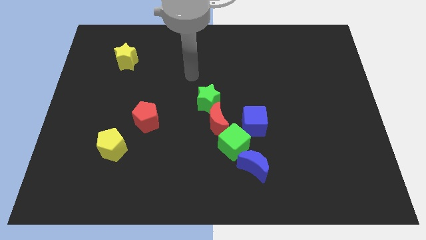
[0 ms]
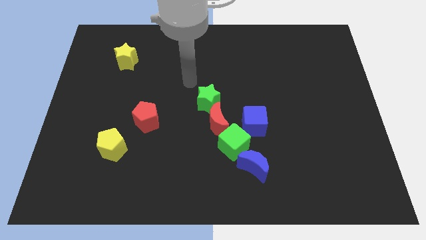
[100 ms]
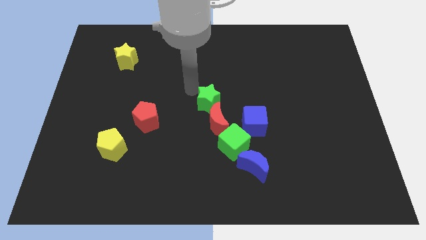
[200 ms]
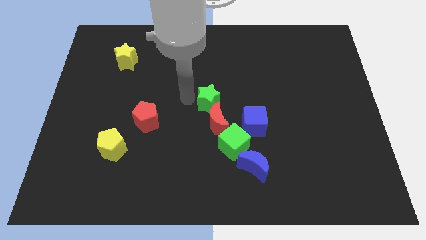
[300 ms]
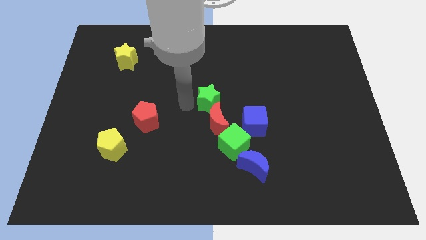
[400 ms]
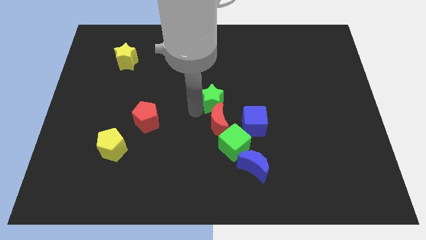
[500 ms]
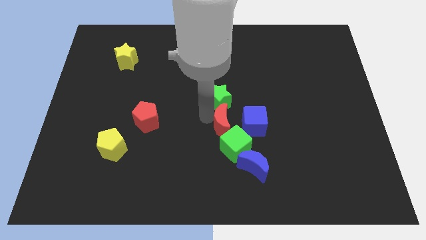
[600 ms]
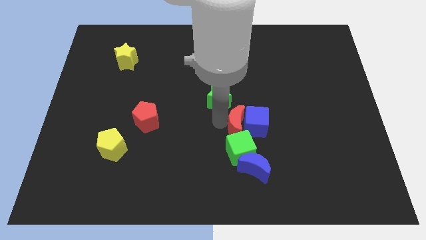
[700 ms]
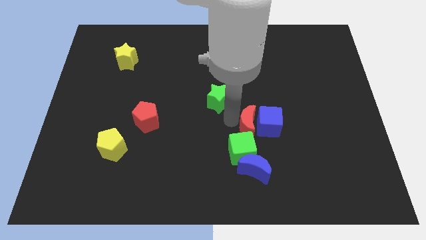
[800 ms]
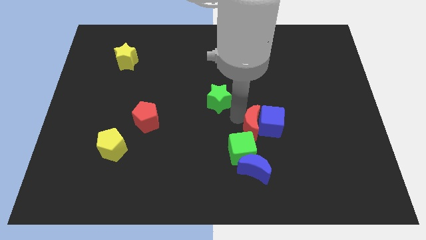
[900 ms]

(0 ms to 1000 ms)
pull the green star apart from the red moon

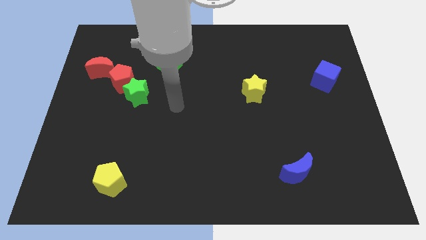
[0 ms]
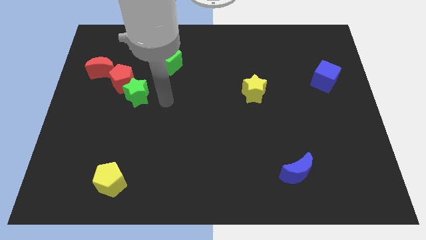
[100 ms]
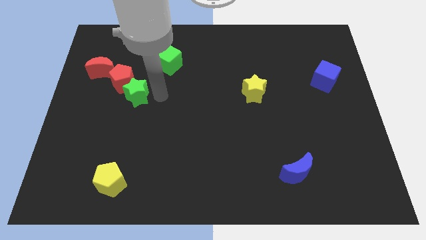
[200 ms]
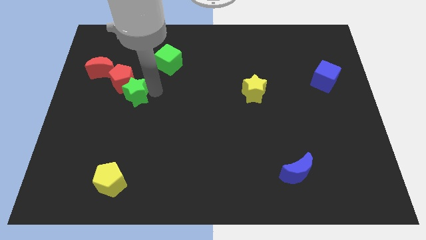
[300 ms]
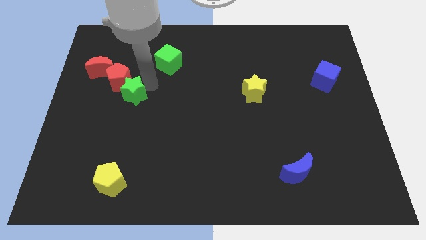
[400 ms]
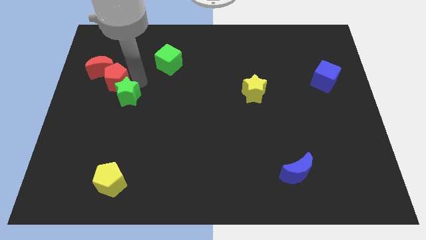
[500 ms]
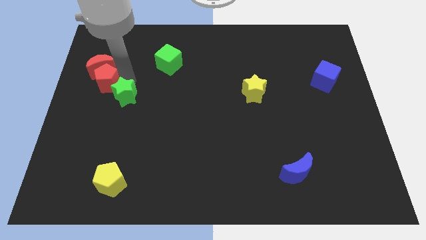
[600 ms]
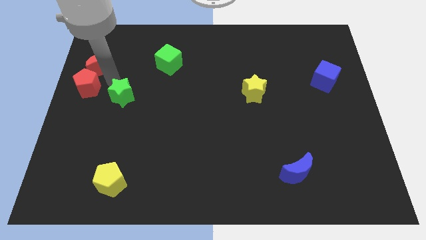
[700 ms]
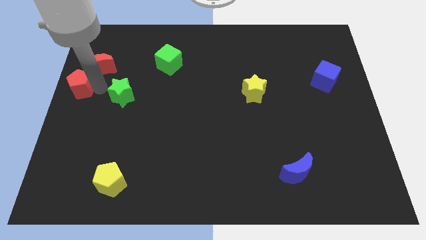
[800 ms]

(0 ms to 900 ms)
separate the green star from the red pentagon

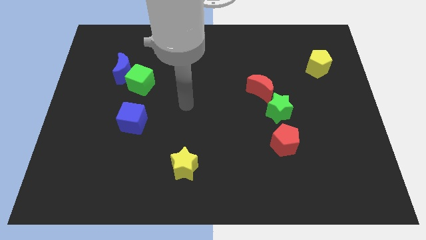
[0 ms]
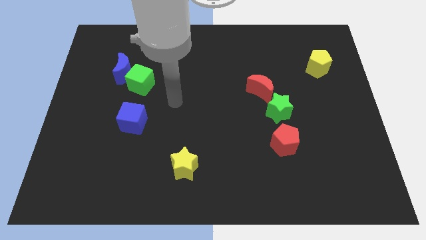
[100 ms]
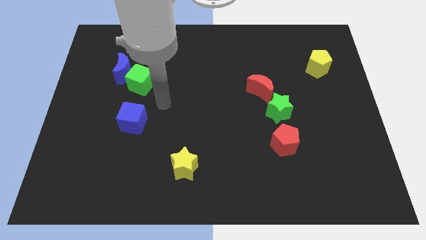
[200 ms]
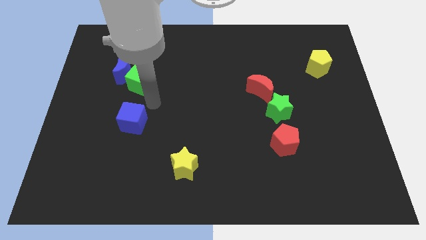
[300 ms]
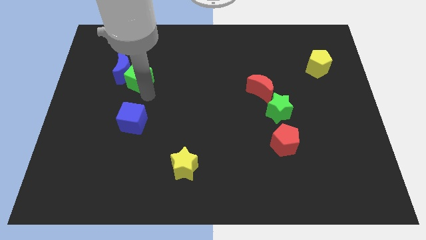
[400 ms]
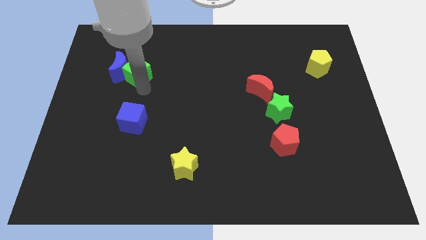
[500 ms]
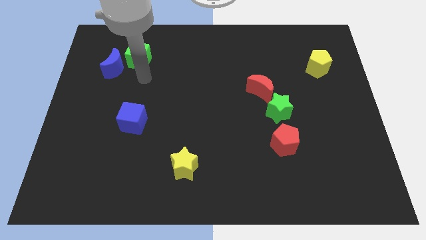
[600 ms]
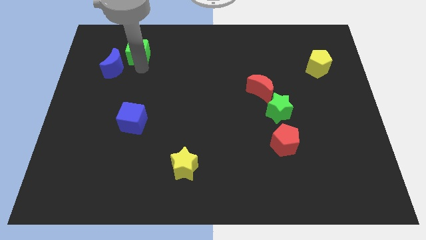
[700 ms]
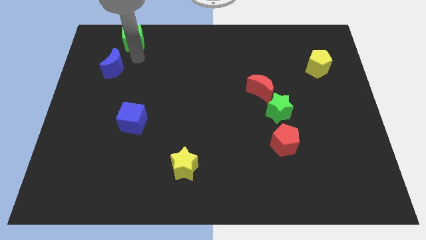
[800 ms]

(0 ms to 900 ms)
separate the blue moon from the green cube

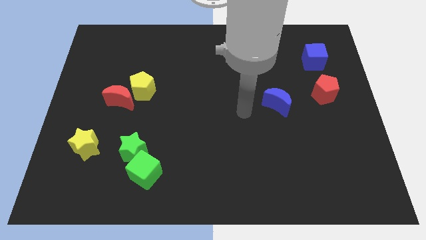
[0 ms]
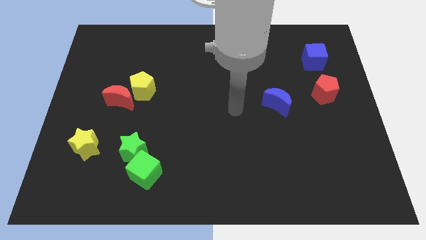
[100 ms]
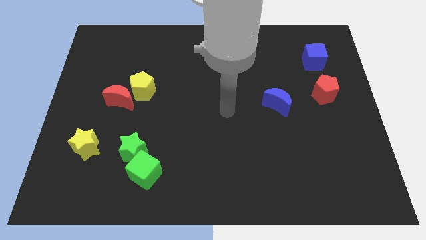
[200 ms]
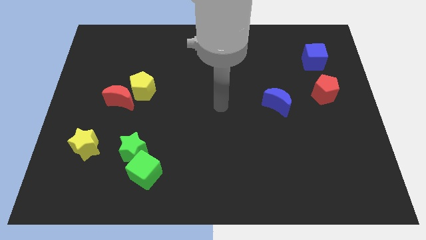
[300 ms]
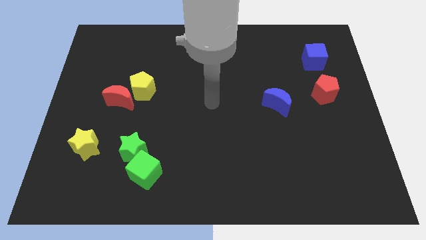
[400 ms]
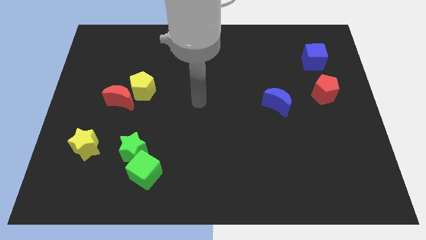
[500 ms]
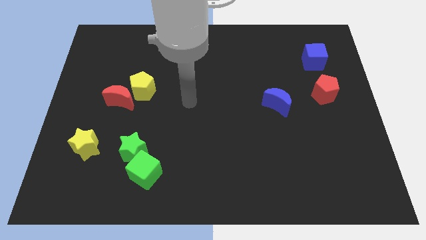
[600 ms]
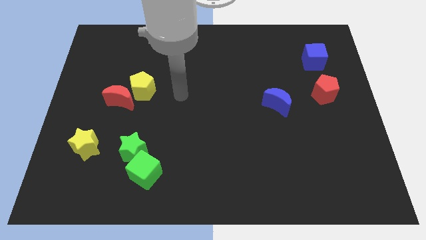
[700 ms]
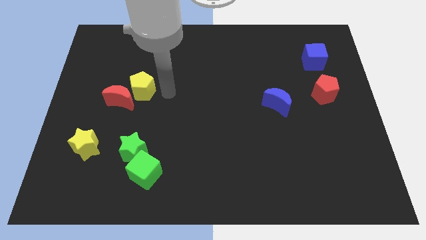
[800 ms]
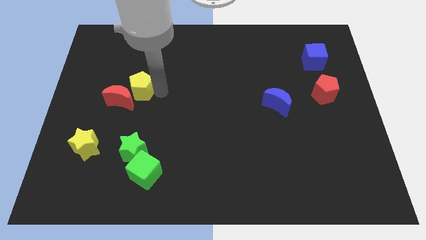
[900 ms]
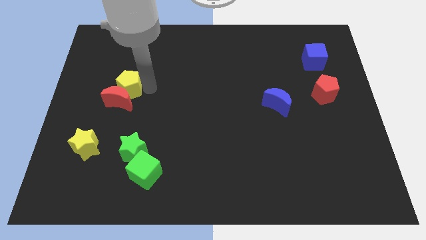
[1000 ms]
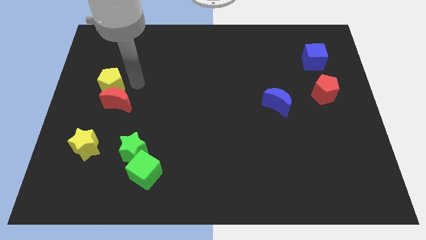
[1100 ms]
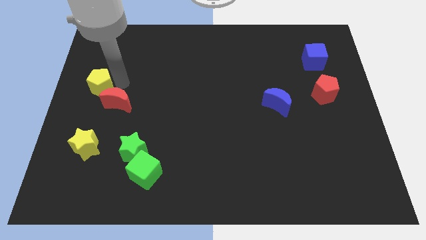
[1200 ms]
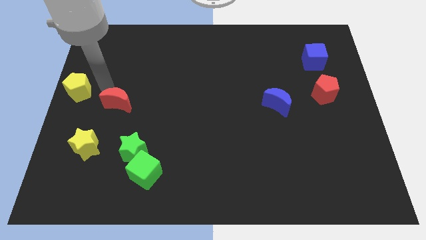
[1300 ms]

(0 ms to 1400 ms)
move the red moon away from the yellow pentagon

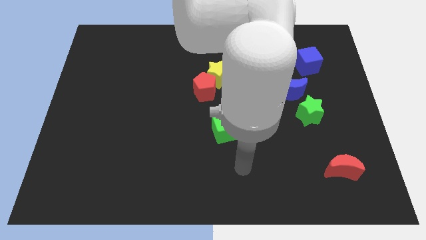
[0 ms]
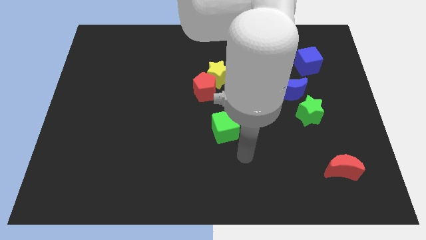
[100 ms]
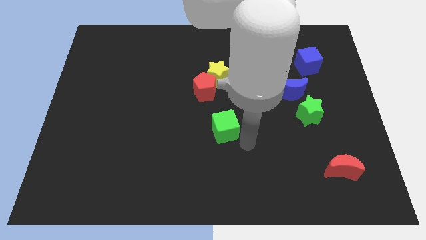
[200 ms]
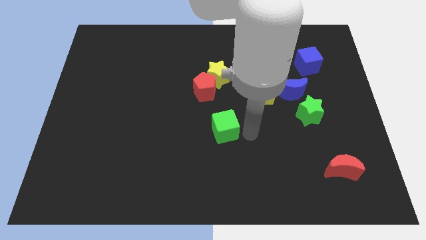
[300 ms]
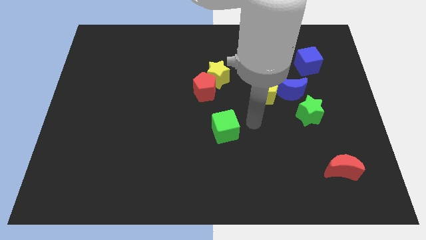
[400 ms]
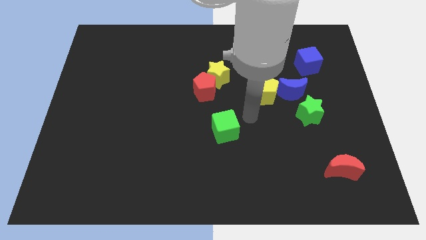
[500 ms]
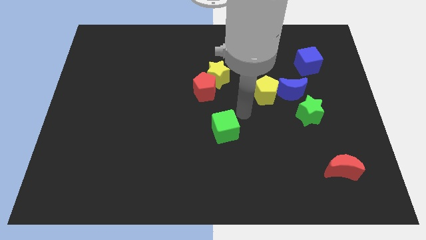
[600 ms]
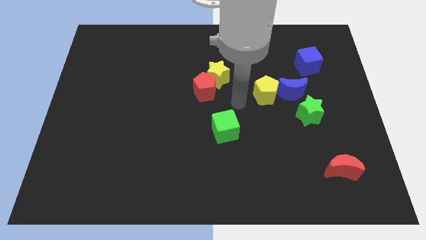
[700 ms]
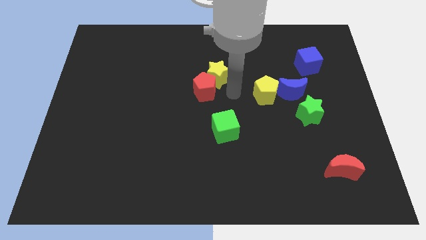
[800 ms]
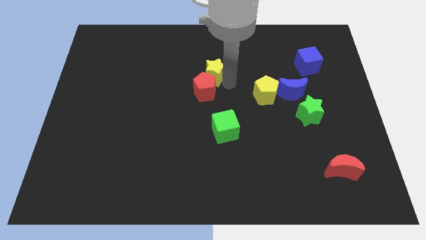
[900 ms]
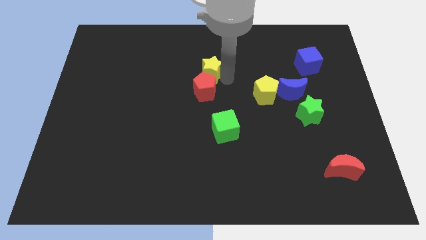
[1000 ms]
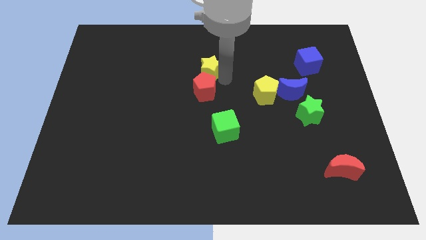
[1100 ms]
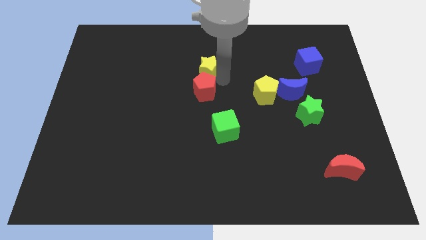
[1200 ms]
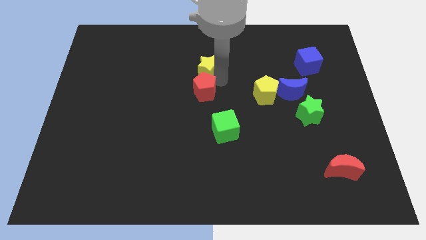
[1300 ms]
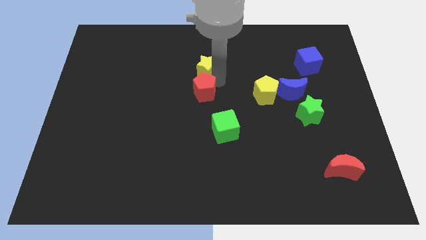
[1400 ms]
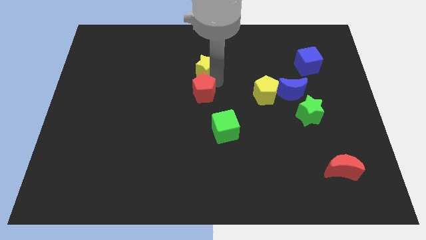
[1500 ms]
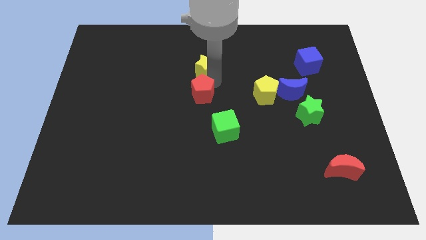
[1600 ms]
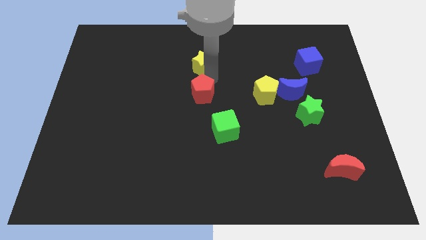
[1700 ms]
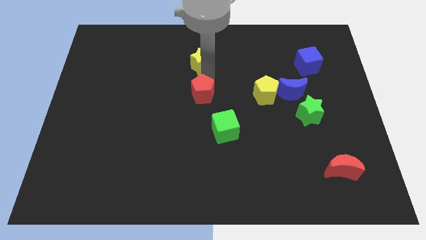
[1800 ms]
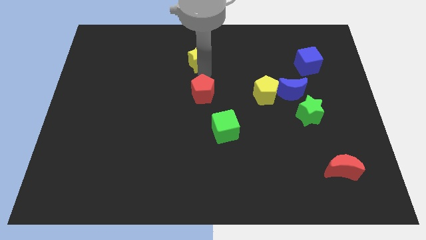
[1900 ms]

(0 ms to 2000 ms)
pull the red pentagon apart from the yellow star

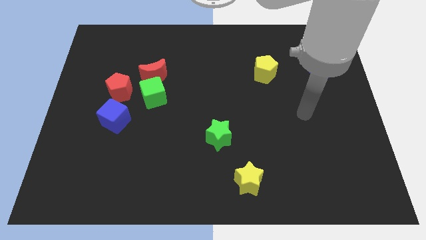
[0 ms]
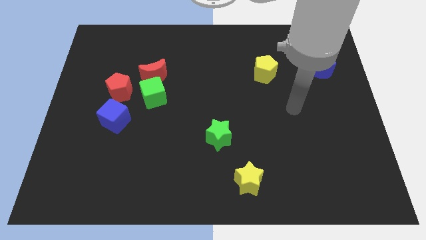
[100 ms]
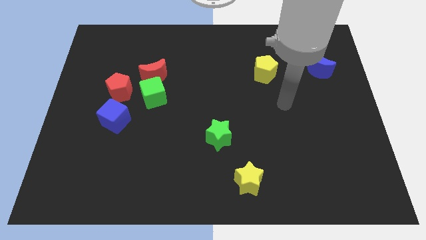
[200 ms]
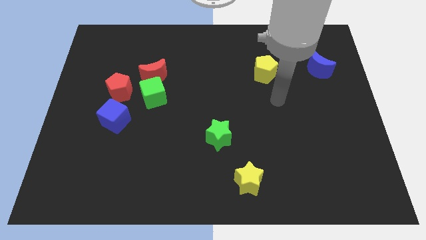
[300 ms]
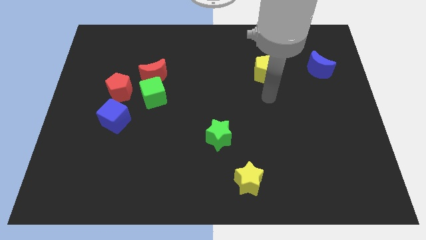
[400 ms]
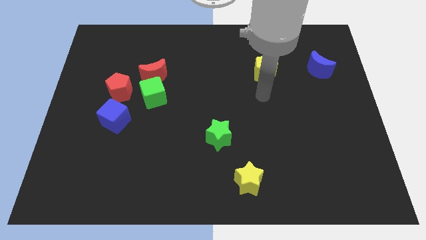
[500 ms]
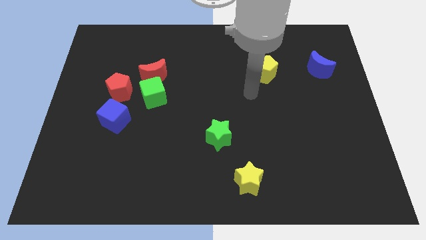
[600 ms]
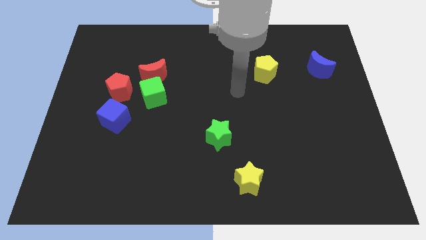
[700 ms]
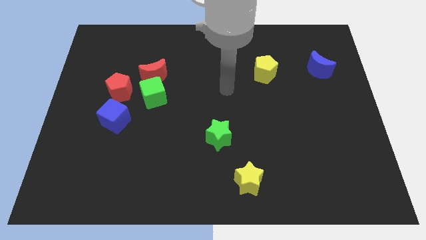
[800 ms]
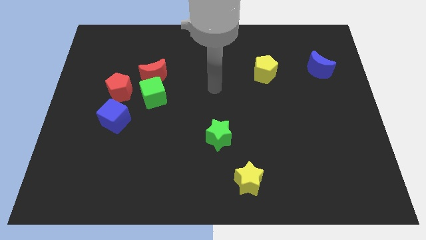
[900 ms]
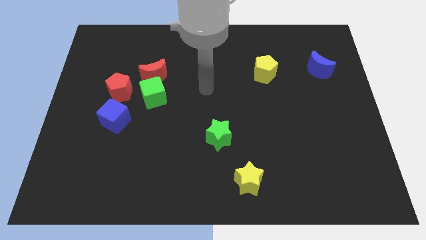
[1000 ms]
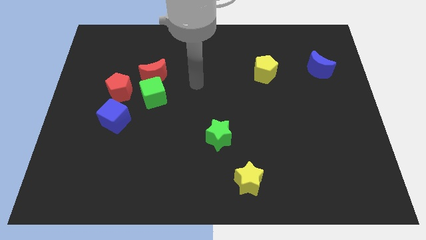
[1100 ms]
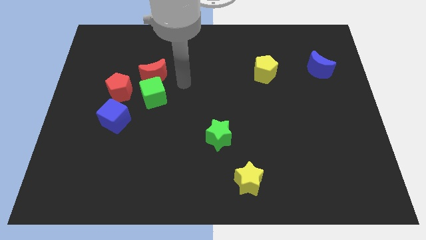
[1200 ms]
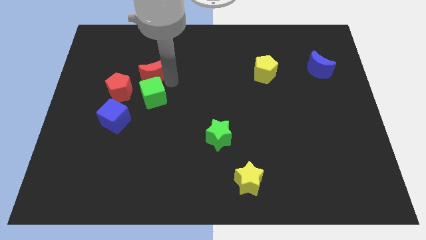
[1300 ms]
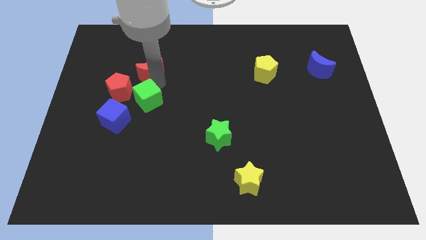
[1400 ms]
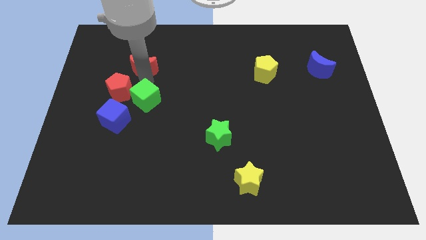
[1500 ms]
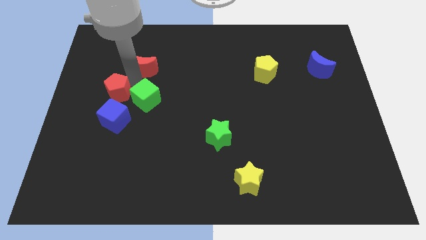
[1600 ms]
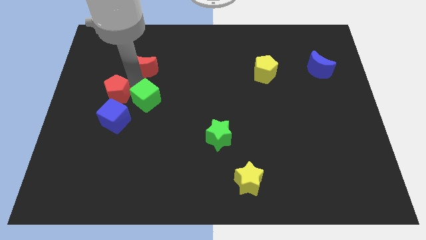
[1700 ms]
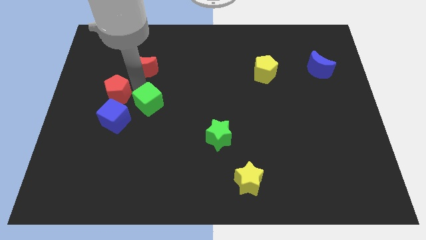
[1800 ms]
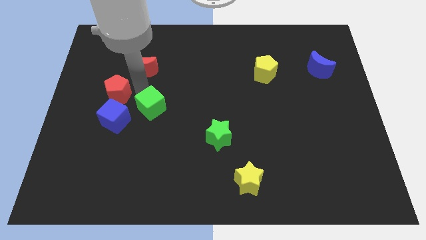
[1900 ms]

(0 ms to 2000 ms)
move the green cube away from the red moon and red pentagon

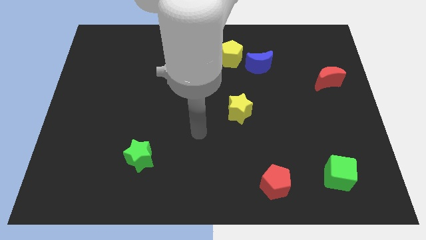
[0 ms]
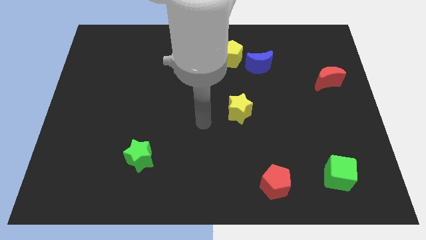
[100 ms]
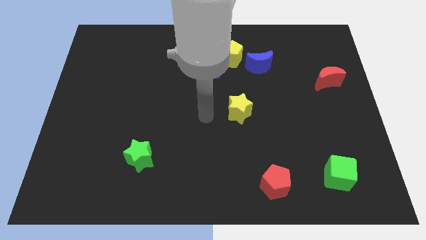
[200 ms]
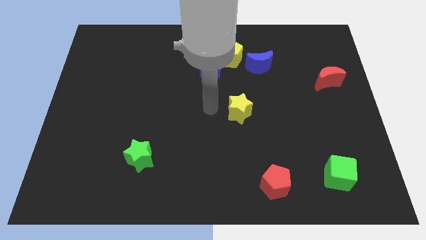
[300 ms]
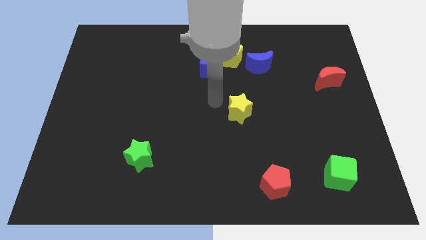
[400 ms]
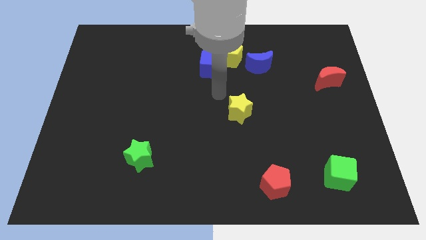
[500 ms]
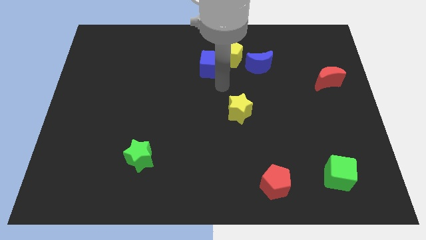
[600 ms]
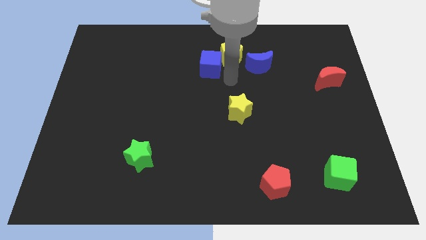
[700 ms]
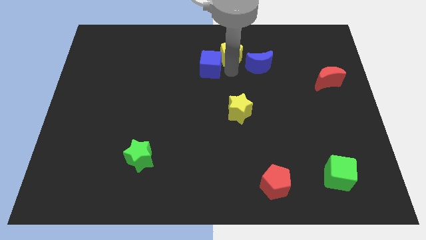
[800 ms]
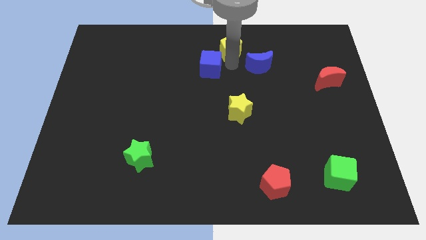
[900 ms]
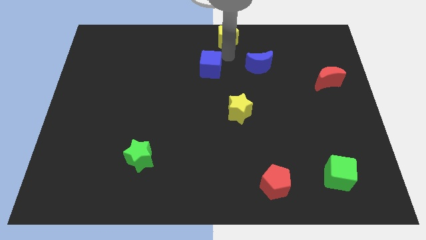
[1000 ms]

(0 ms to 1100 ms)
move the blue cube away from the yellow pentagon

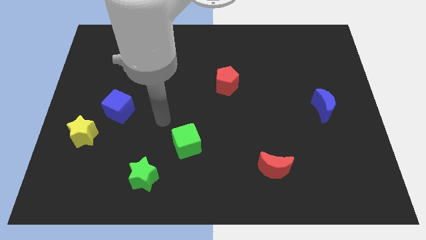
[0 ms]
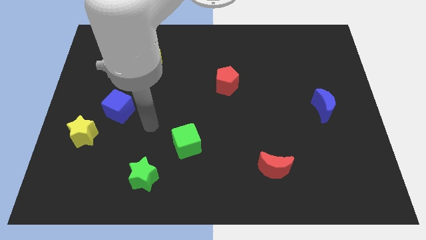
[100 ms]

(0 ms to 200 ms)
separate the blue cube from the yellow star

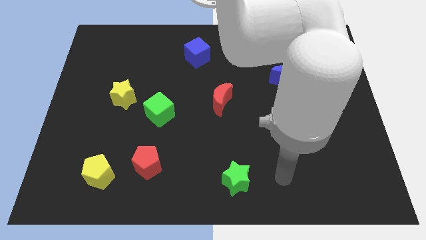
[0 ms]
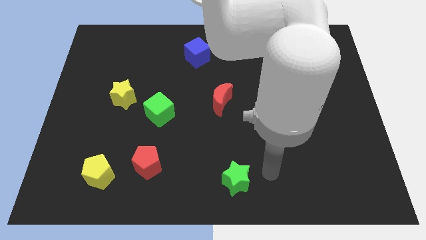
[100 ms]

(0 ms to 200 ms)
move the green cube away from the yellow star
